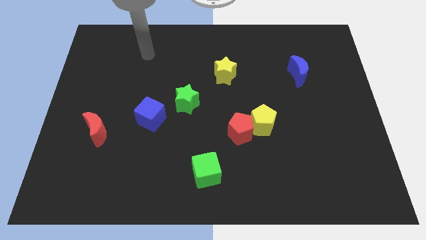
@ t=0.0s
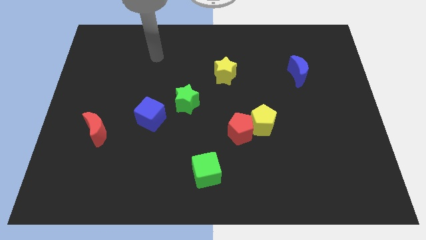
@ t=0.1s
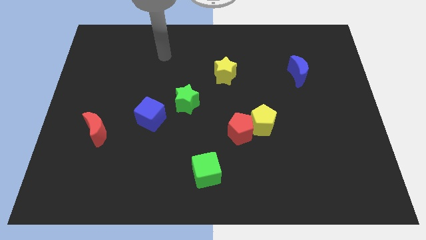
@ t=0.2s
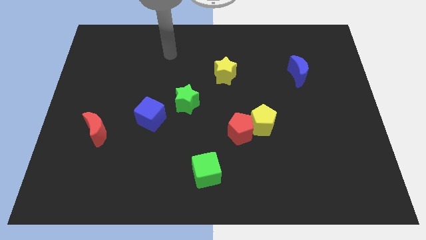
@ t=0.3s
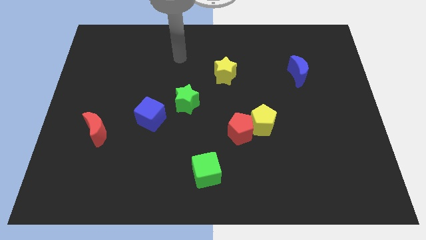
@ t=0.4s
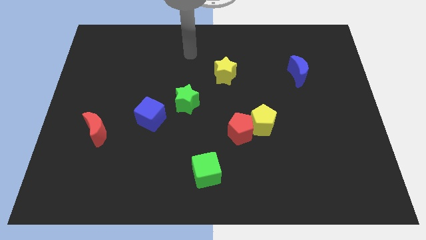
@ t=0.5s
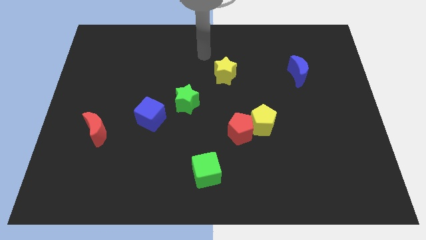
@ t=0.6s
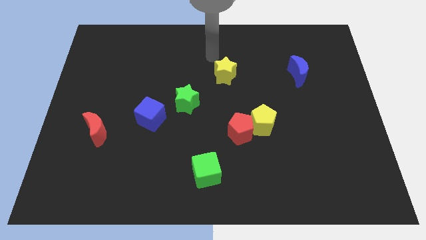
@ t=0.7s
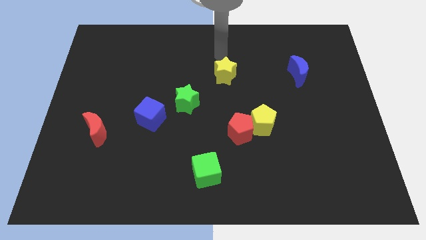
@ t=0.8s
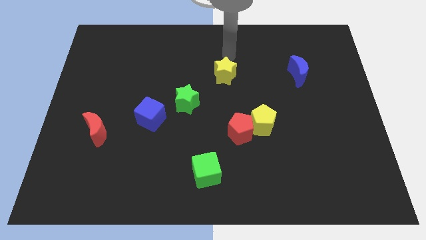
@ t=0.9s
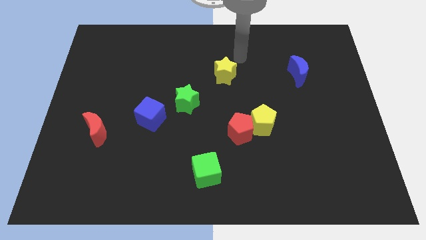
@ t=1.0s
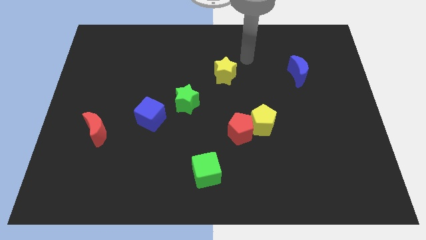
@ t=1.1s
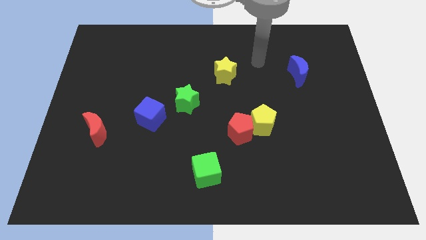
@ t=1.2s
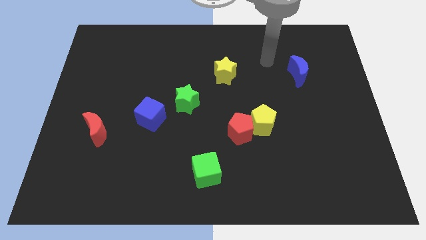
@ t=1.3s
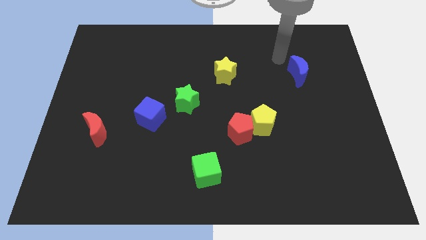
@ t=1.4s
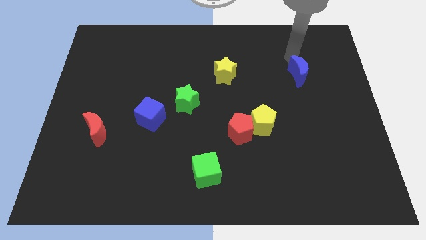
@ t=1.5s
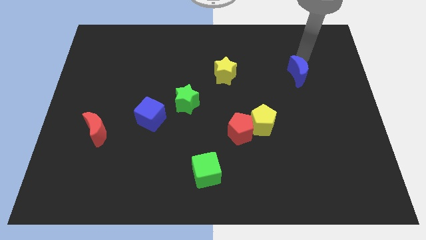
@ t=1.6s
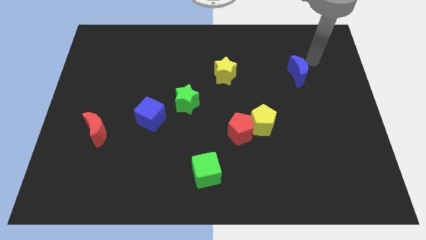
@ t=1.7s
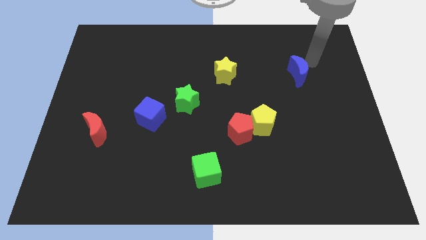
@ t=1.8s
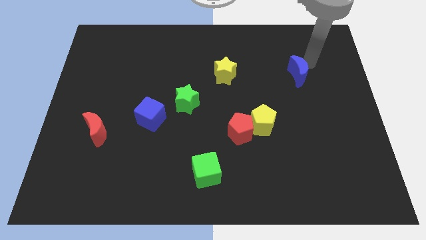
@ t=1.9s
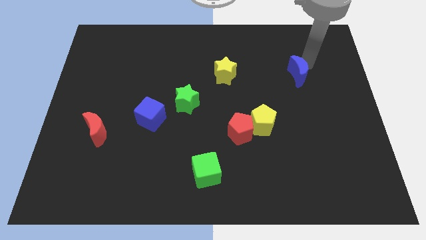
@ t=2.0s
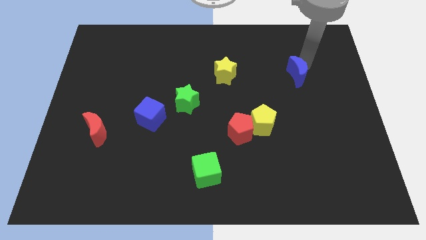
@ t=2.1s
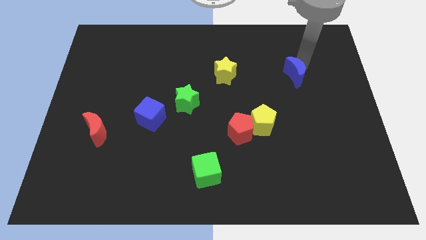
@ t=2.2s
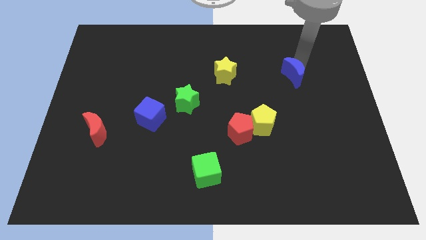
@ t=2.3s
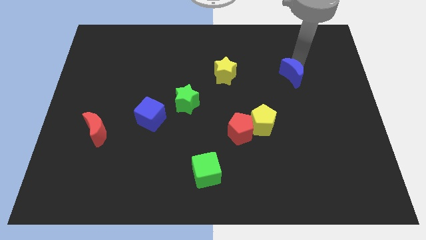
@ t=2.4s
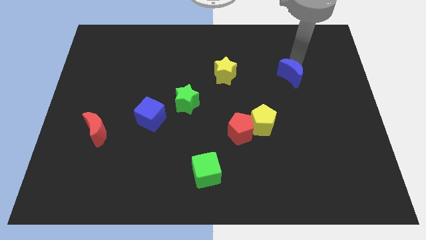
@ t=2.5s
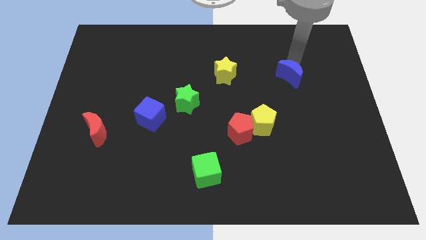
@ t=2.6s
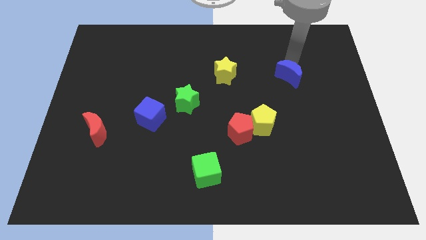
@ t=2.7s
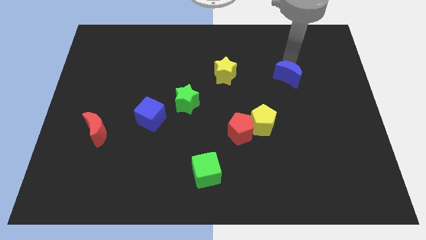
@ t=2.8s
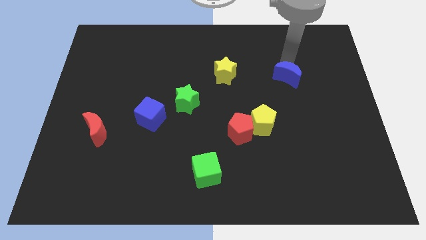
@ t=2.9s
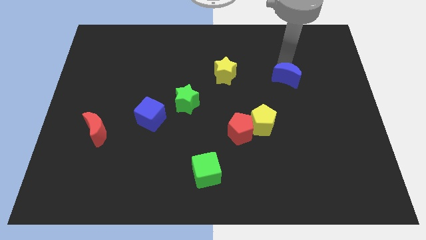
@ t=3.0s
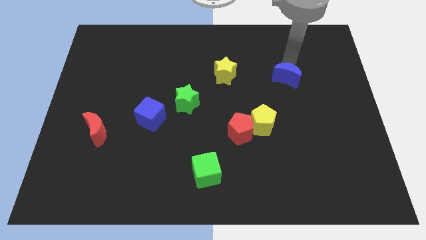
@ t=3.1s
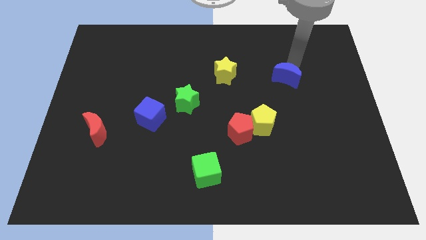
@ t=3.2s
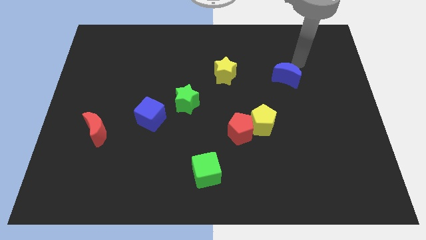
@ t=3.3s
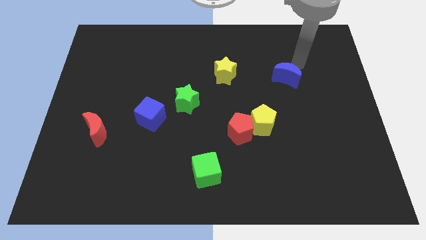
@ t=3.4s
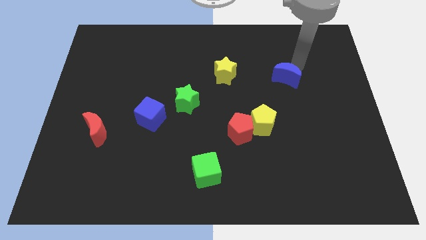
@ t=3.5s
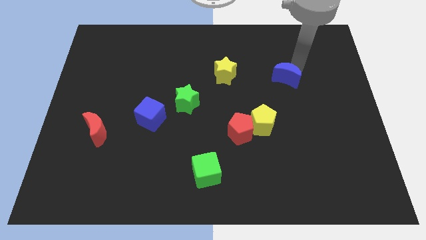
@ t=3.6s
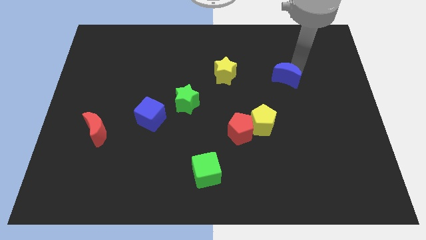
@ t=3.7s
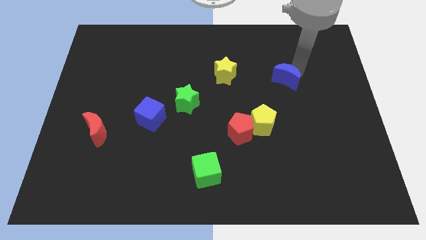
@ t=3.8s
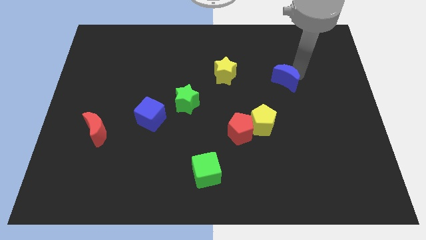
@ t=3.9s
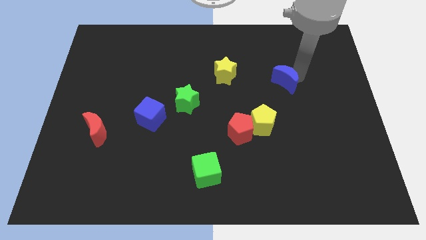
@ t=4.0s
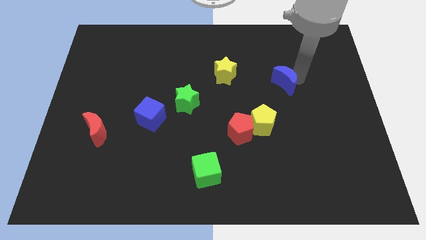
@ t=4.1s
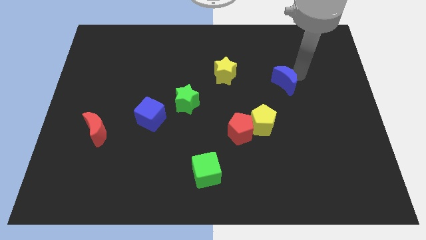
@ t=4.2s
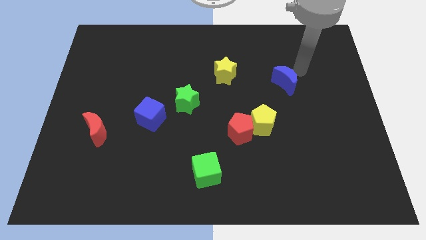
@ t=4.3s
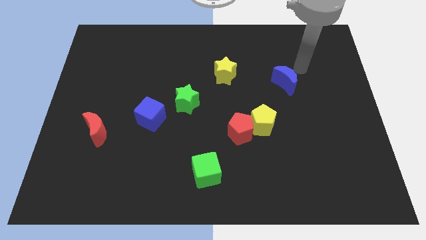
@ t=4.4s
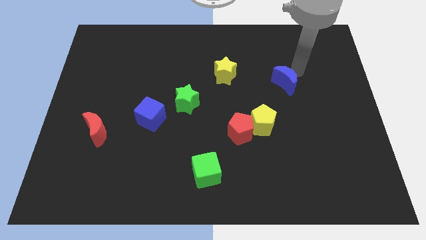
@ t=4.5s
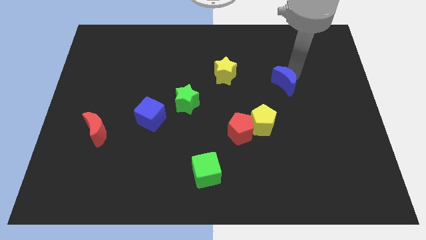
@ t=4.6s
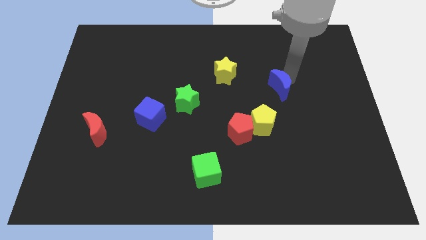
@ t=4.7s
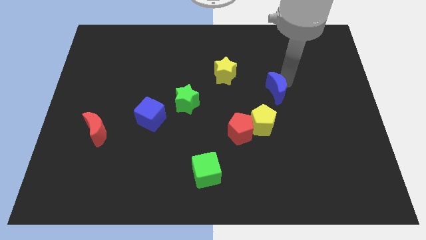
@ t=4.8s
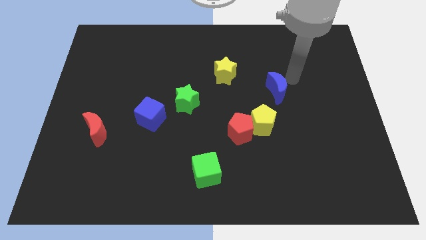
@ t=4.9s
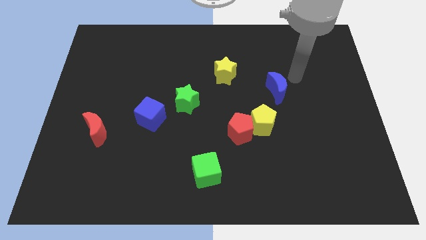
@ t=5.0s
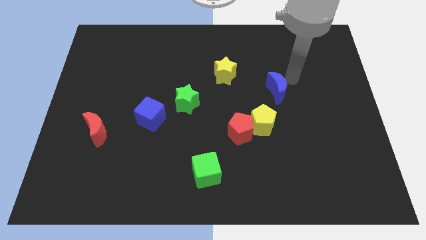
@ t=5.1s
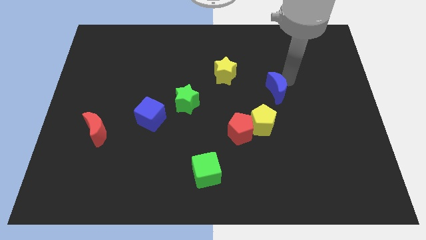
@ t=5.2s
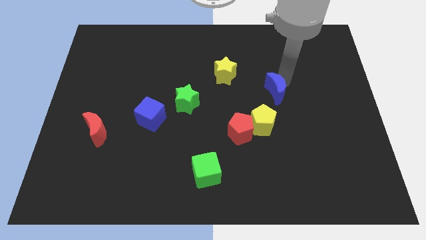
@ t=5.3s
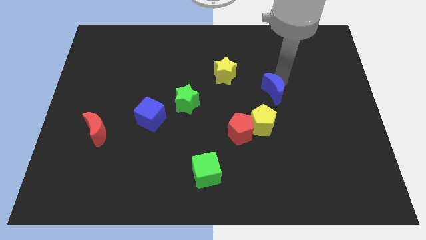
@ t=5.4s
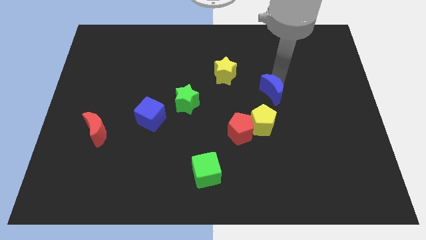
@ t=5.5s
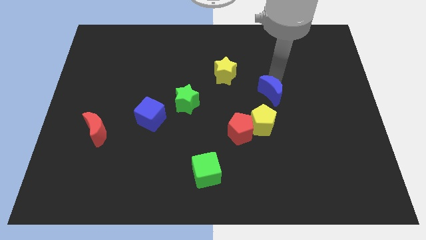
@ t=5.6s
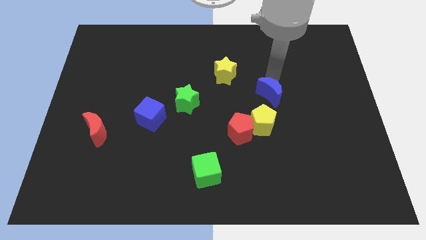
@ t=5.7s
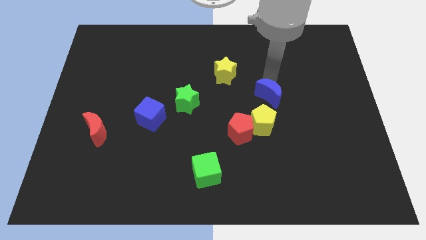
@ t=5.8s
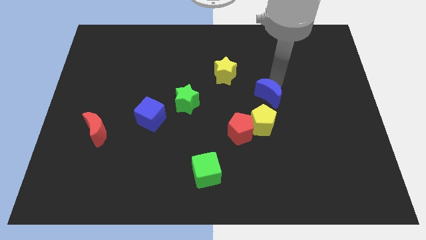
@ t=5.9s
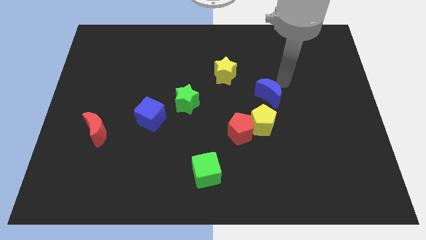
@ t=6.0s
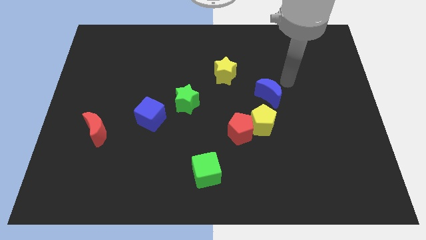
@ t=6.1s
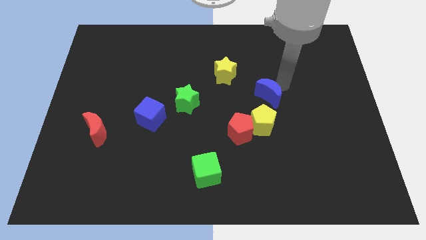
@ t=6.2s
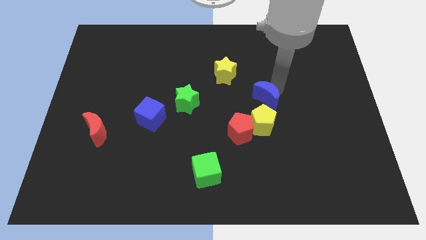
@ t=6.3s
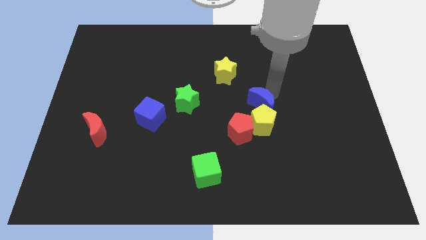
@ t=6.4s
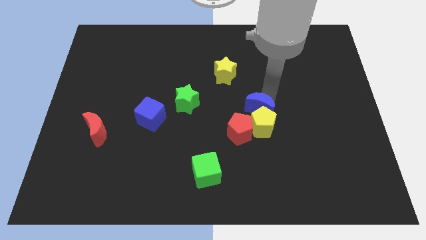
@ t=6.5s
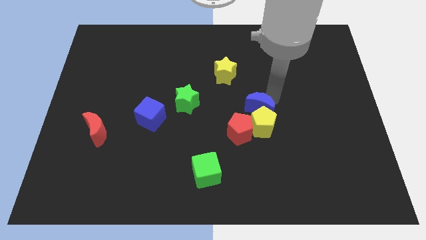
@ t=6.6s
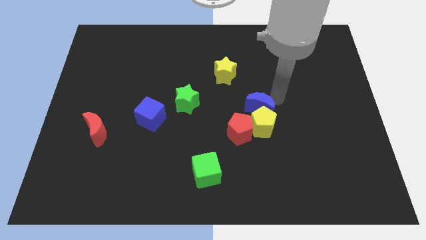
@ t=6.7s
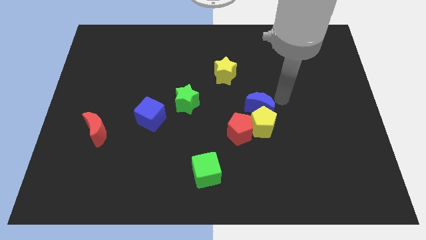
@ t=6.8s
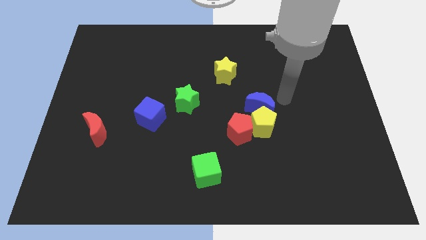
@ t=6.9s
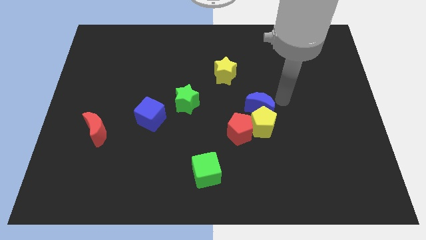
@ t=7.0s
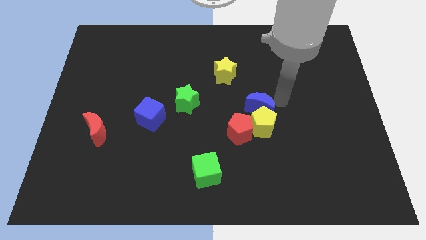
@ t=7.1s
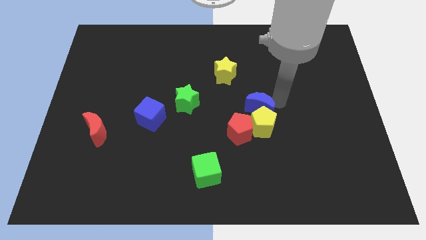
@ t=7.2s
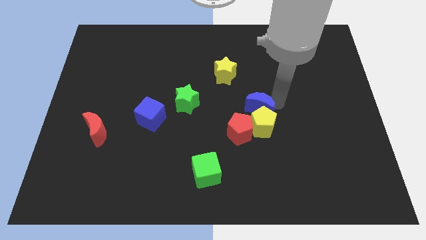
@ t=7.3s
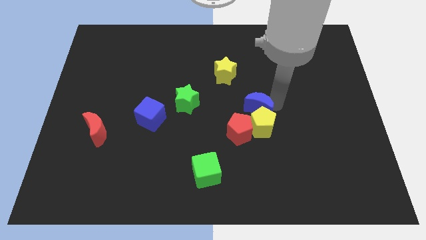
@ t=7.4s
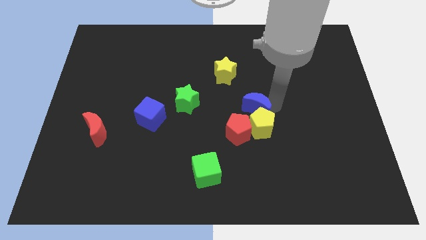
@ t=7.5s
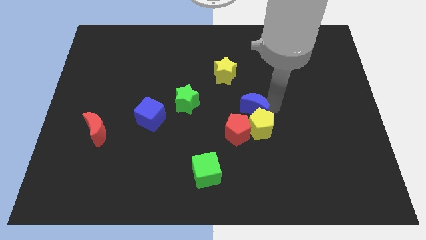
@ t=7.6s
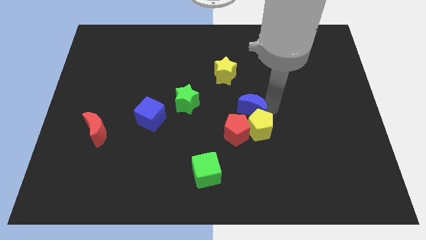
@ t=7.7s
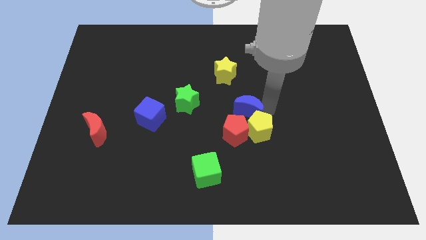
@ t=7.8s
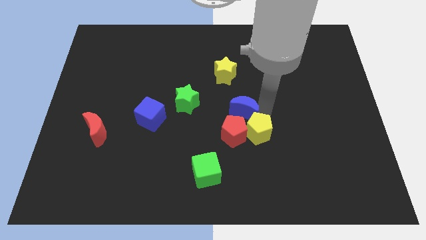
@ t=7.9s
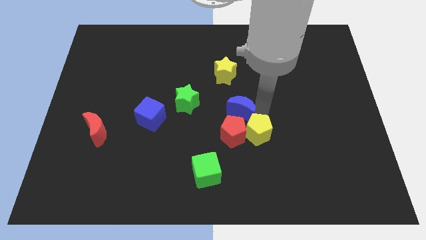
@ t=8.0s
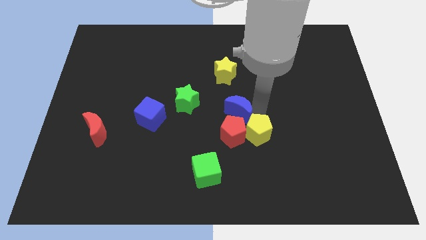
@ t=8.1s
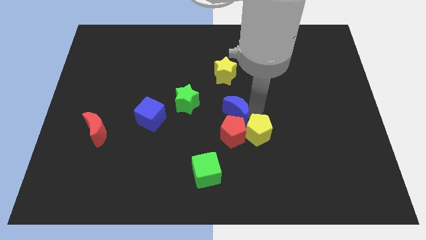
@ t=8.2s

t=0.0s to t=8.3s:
push the blue moon downwards and then left
